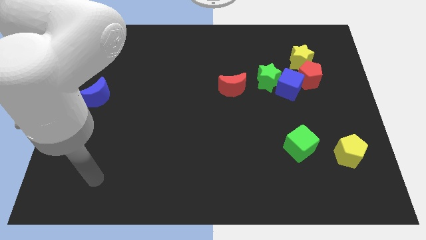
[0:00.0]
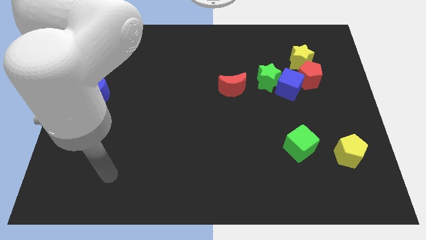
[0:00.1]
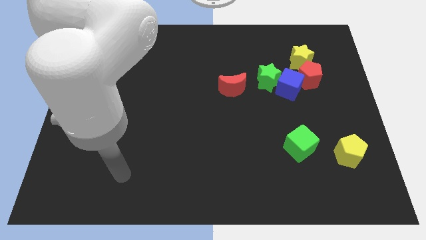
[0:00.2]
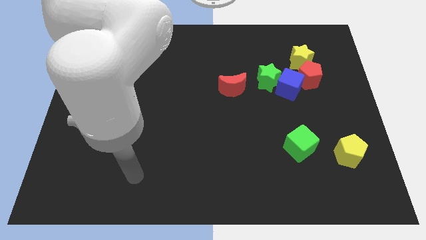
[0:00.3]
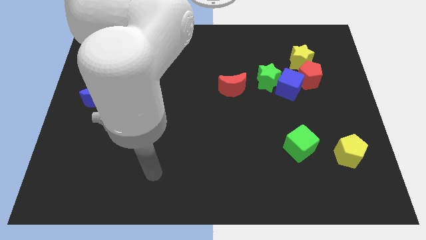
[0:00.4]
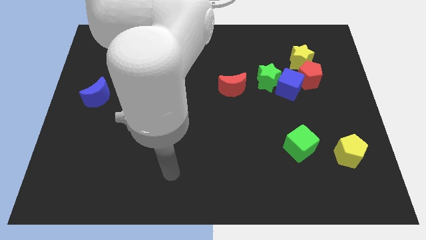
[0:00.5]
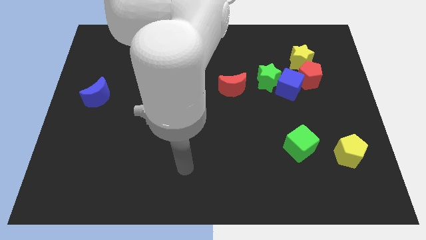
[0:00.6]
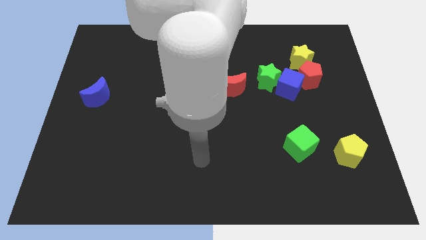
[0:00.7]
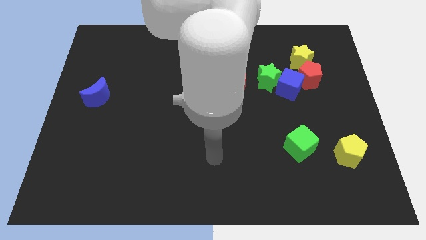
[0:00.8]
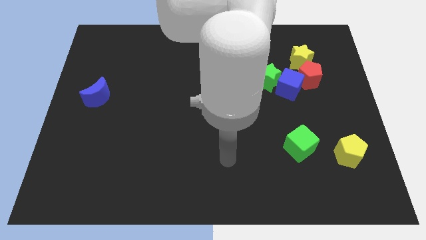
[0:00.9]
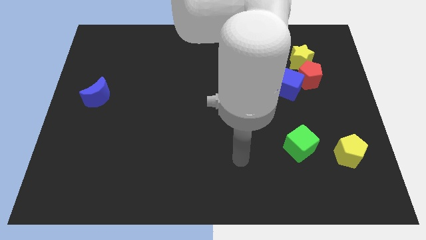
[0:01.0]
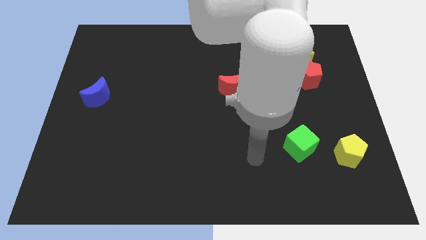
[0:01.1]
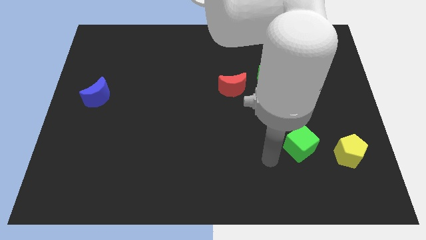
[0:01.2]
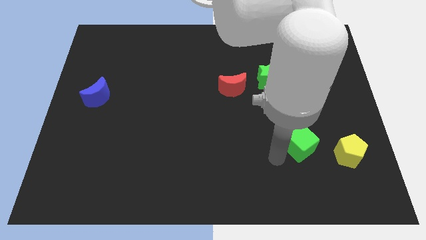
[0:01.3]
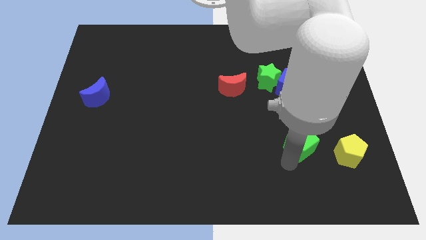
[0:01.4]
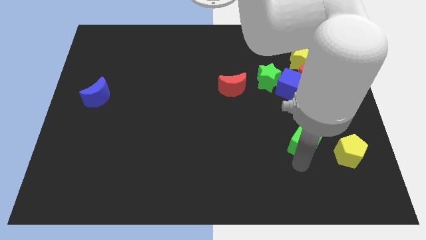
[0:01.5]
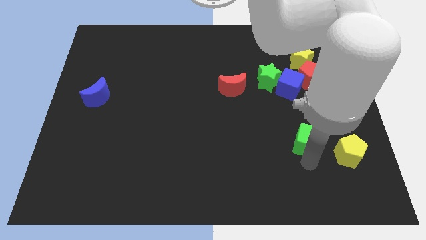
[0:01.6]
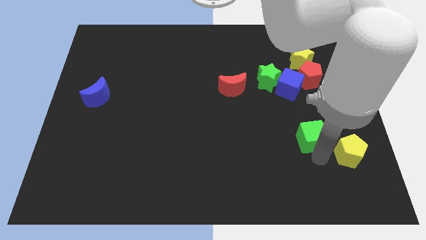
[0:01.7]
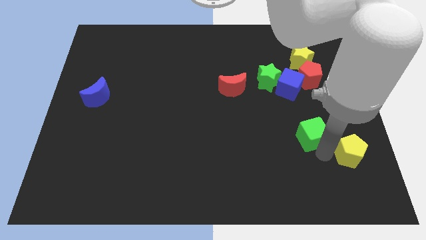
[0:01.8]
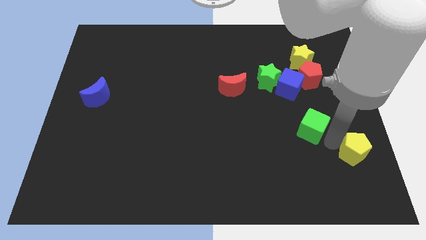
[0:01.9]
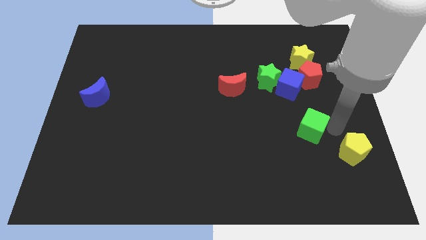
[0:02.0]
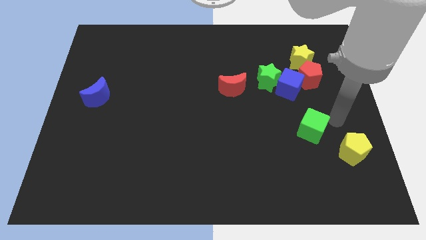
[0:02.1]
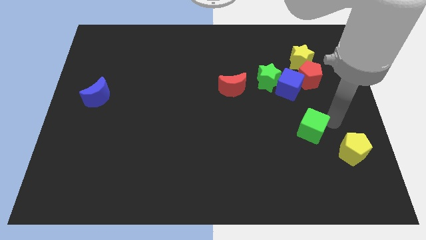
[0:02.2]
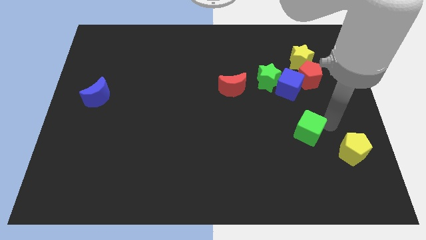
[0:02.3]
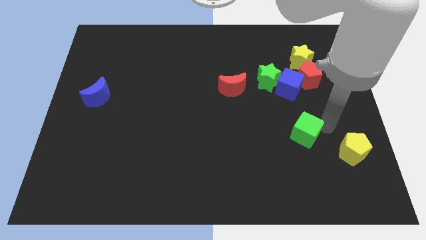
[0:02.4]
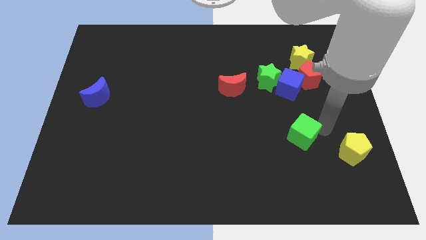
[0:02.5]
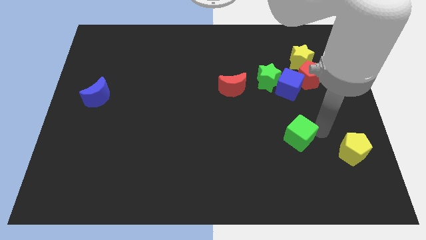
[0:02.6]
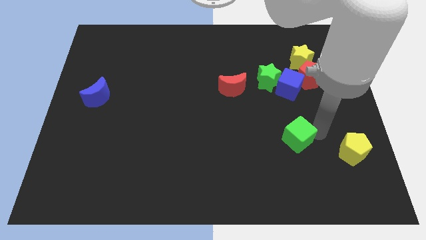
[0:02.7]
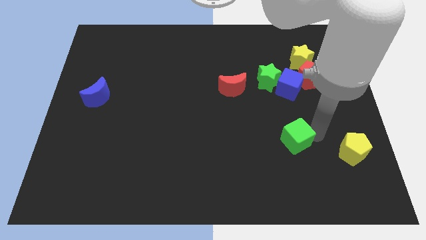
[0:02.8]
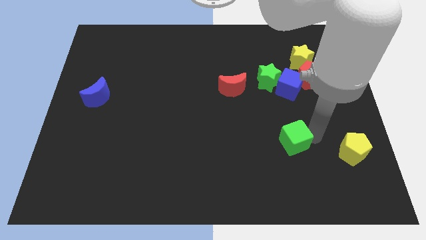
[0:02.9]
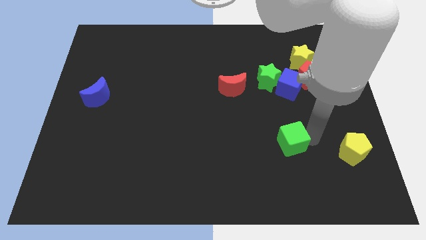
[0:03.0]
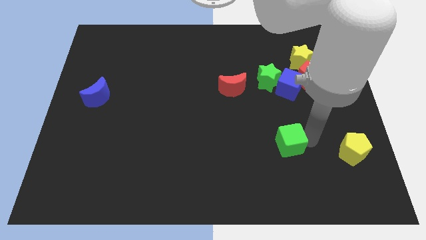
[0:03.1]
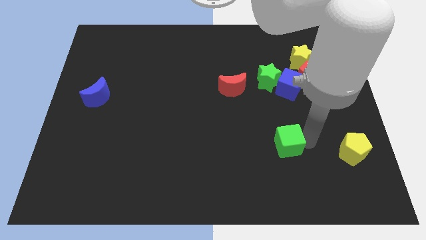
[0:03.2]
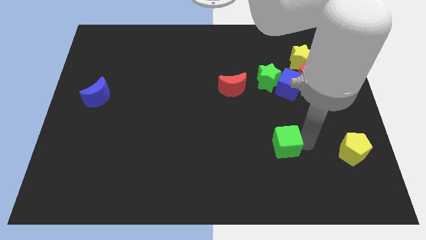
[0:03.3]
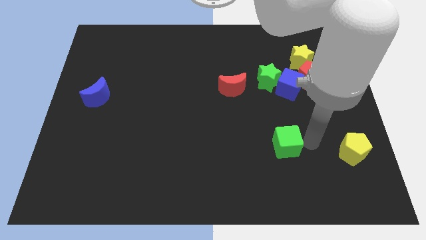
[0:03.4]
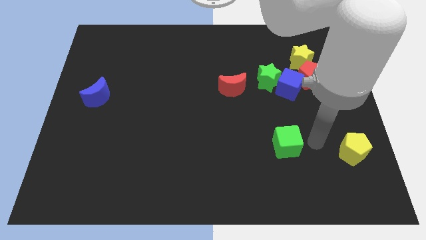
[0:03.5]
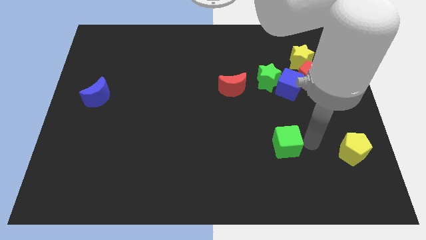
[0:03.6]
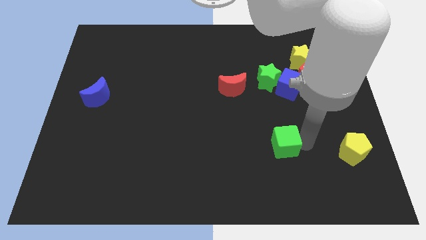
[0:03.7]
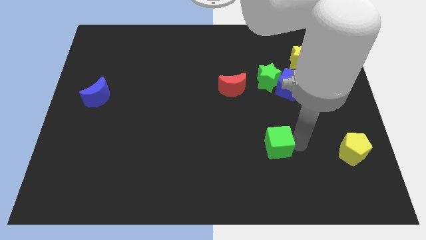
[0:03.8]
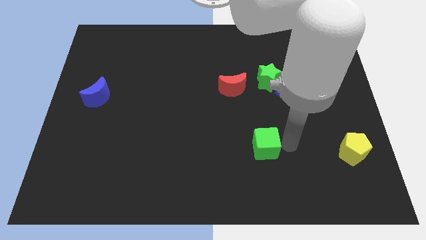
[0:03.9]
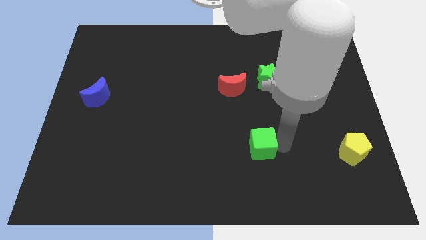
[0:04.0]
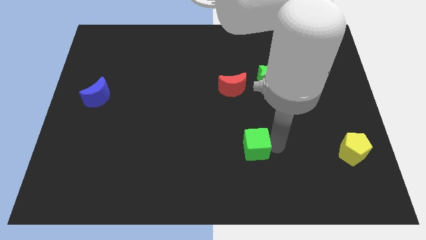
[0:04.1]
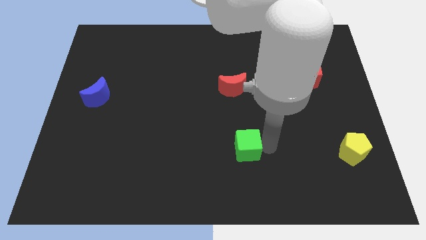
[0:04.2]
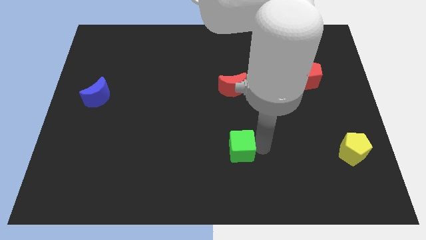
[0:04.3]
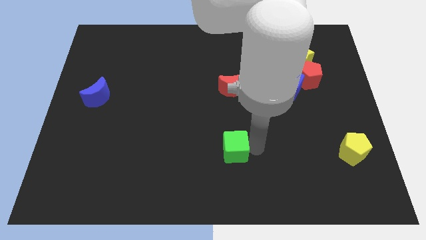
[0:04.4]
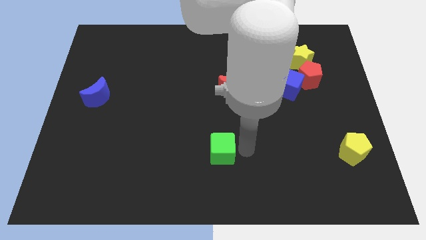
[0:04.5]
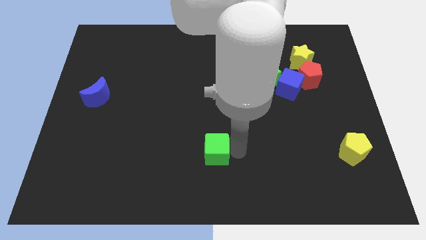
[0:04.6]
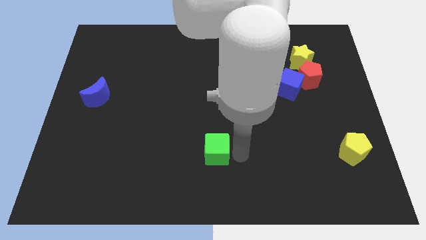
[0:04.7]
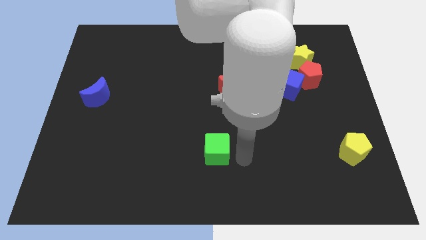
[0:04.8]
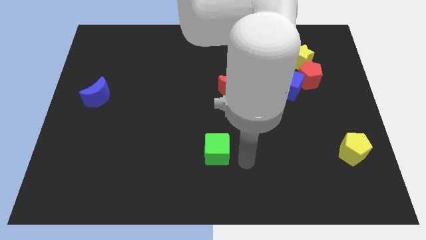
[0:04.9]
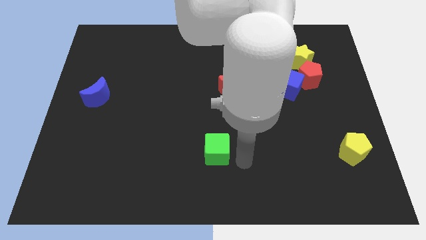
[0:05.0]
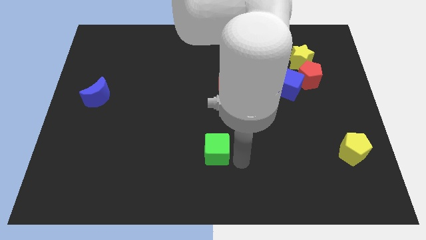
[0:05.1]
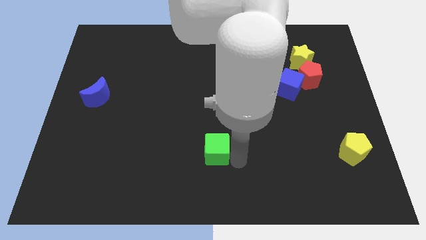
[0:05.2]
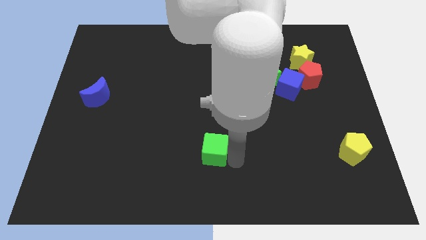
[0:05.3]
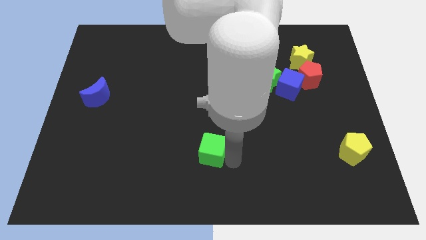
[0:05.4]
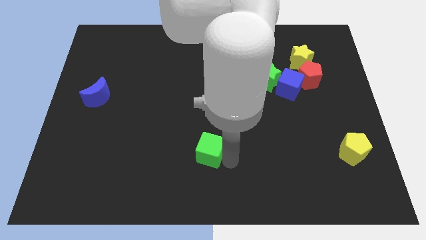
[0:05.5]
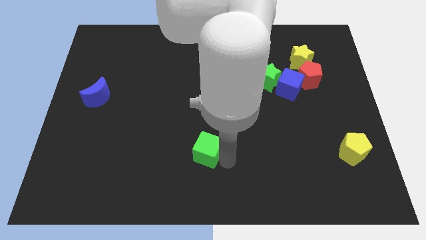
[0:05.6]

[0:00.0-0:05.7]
move the green cube left

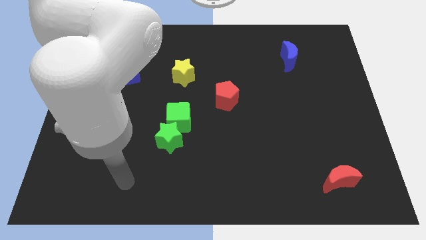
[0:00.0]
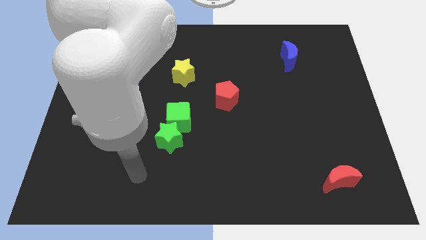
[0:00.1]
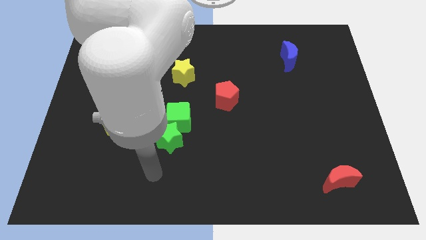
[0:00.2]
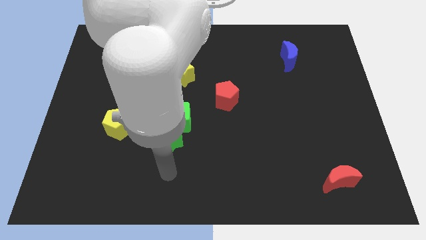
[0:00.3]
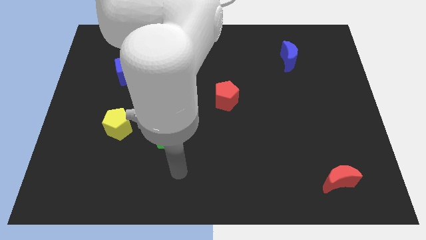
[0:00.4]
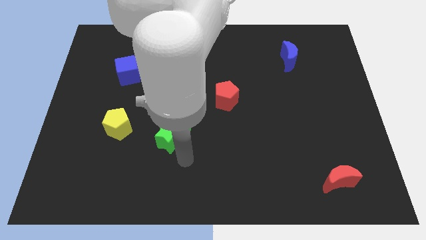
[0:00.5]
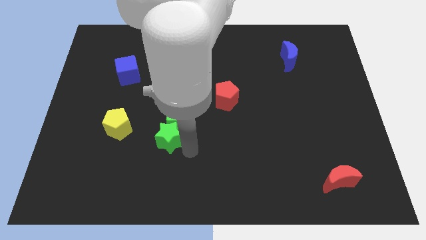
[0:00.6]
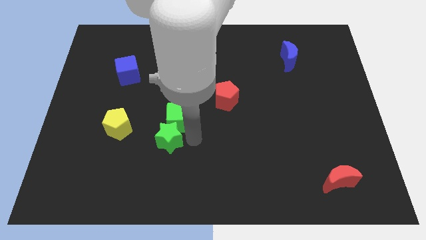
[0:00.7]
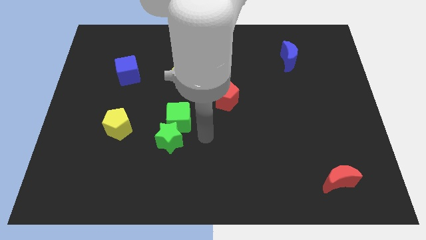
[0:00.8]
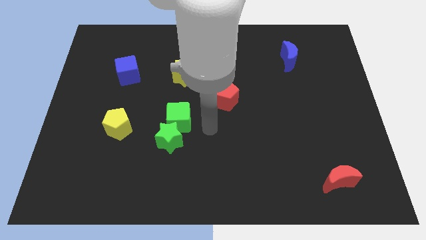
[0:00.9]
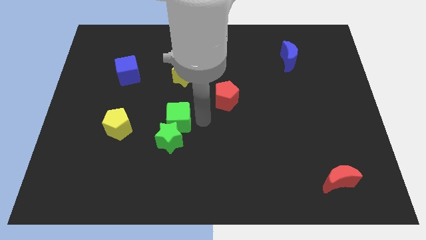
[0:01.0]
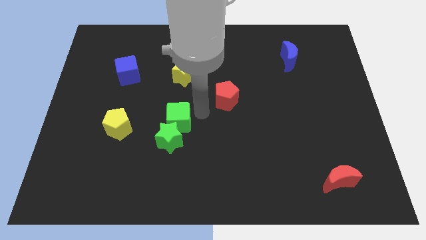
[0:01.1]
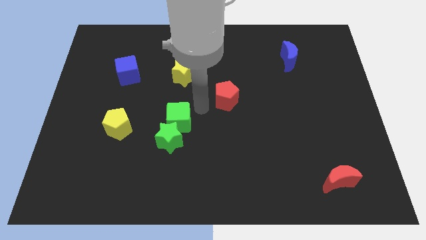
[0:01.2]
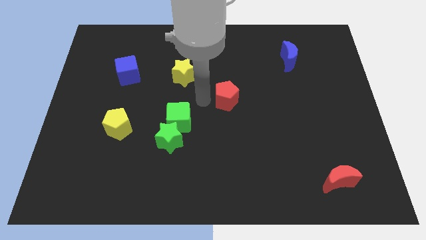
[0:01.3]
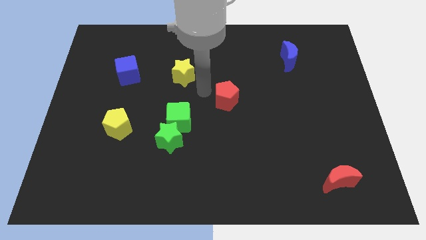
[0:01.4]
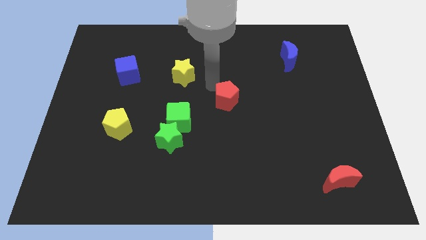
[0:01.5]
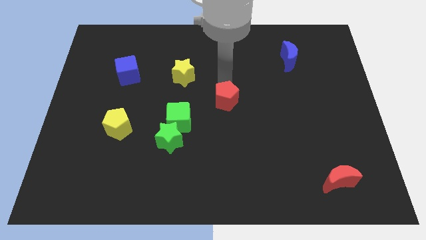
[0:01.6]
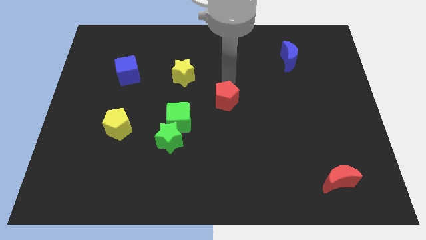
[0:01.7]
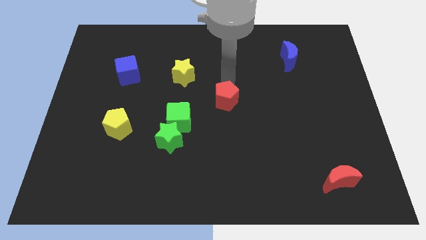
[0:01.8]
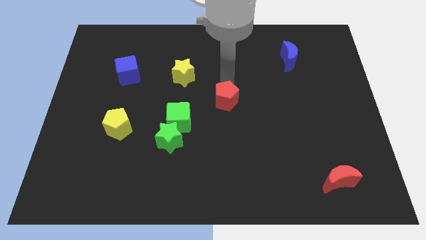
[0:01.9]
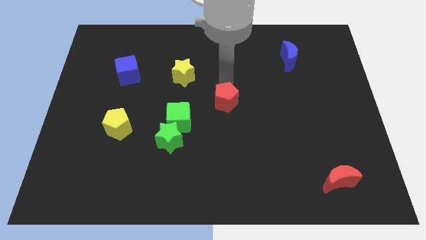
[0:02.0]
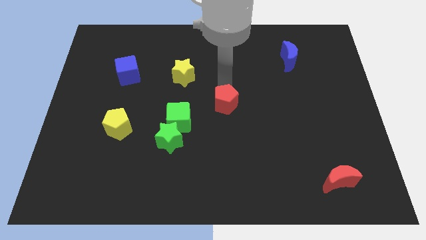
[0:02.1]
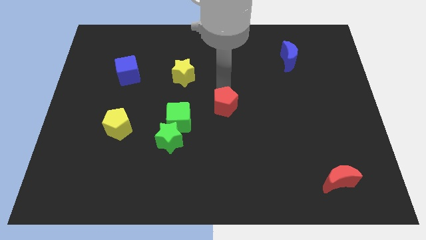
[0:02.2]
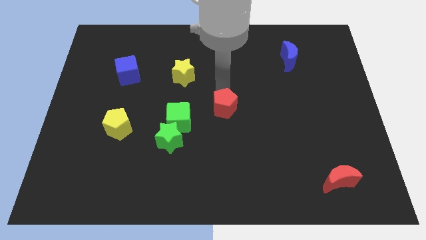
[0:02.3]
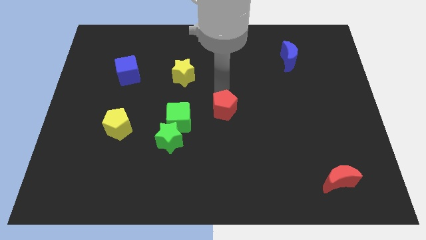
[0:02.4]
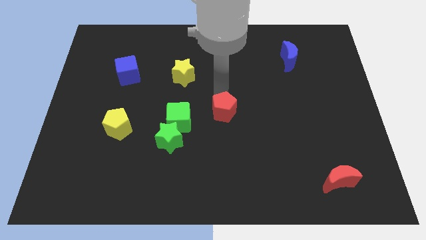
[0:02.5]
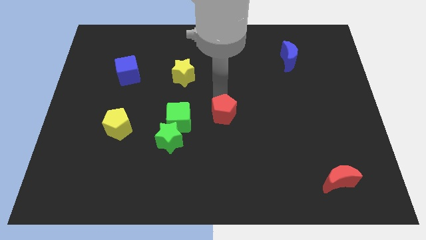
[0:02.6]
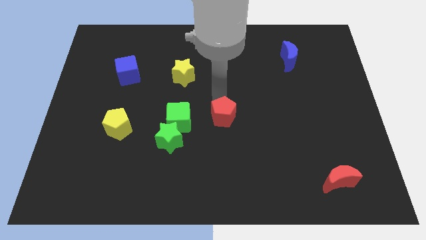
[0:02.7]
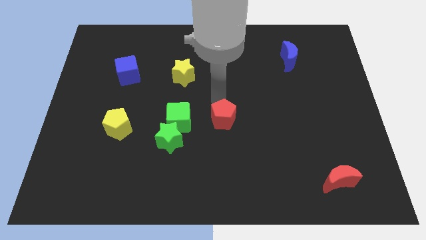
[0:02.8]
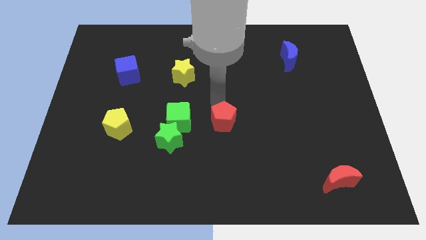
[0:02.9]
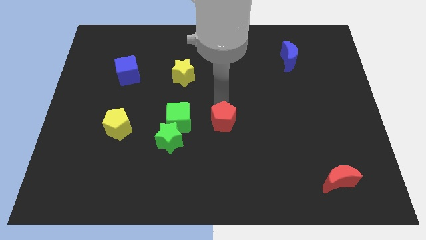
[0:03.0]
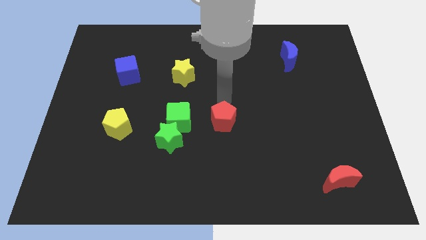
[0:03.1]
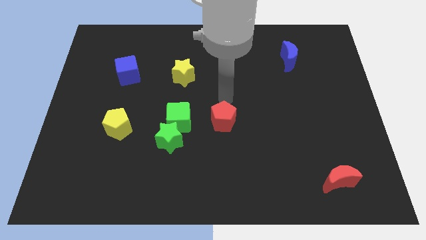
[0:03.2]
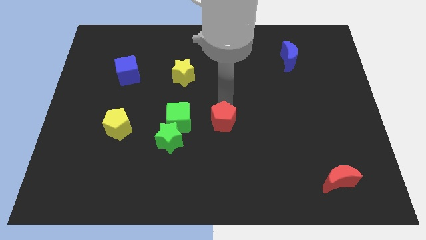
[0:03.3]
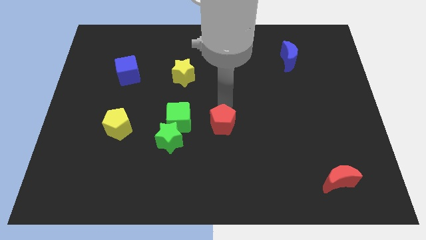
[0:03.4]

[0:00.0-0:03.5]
move the red pentagon a bit downwards
